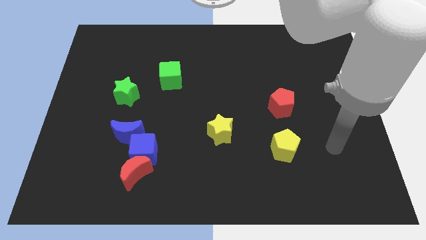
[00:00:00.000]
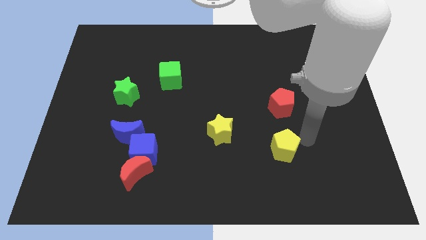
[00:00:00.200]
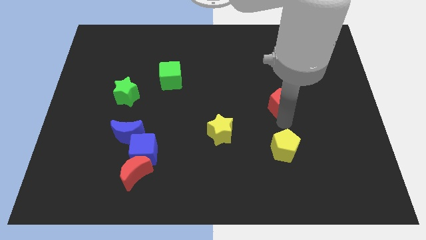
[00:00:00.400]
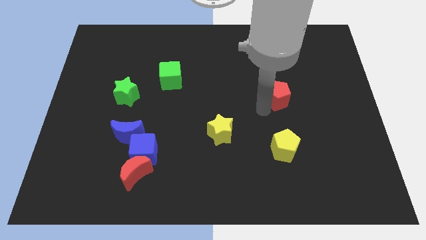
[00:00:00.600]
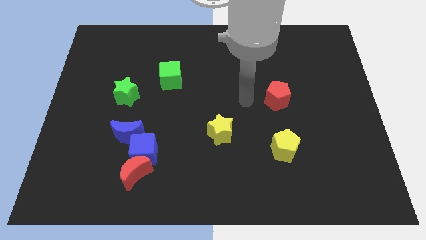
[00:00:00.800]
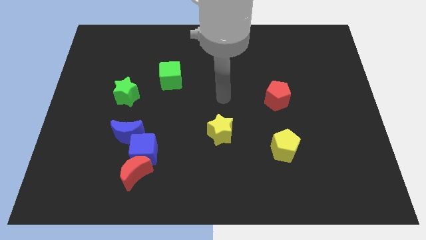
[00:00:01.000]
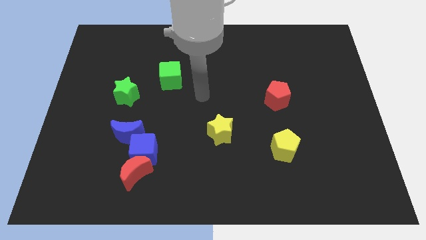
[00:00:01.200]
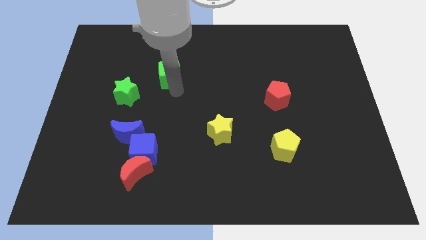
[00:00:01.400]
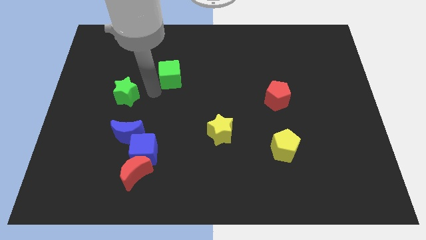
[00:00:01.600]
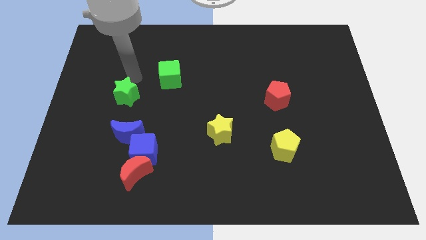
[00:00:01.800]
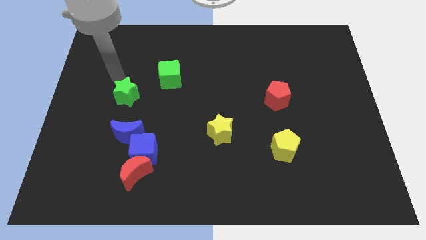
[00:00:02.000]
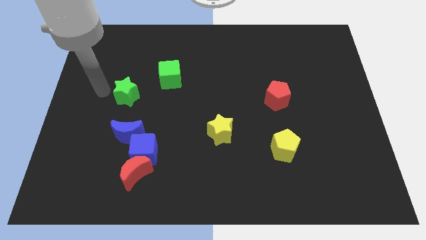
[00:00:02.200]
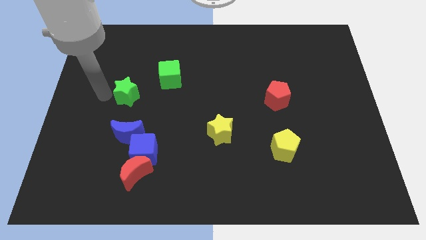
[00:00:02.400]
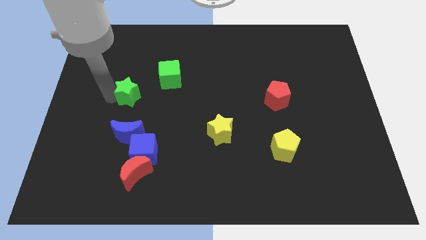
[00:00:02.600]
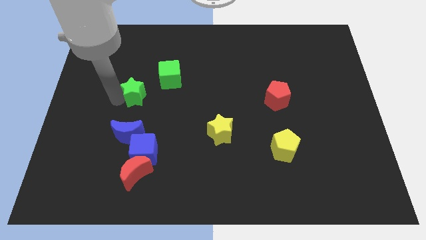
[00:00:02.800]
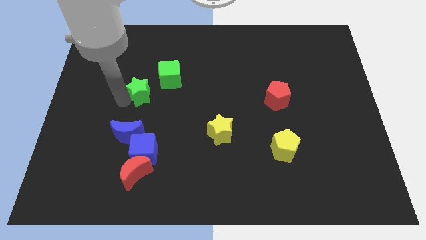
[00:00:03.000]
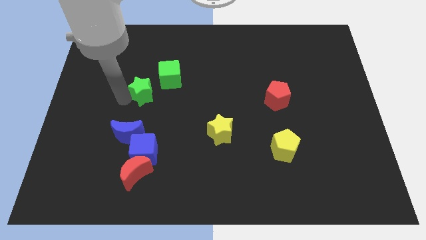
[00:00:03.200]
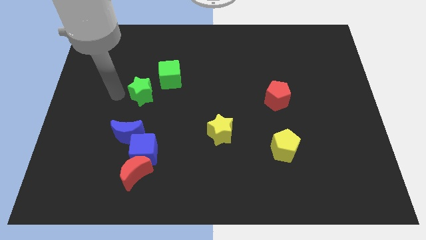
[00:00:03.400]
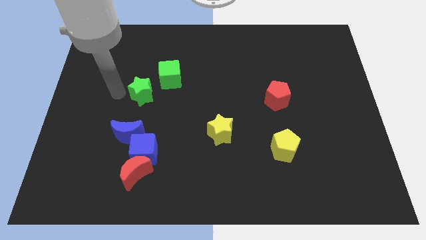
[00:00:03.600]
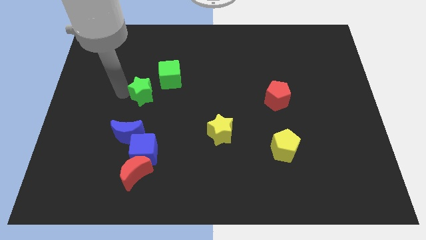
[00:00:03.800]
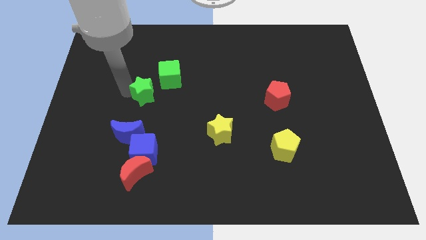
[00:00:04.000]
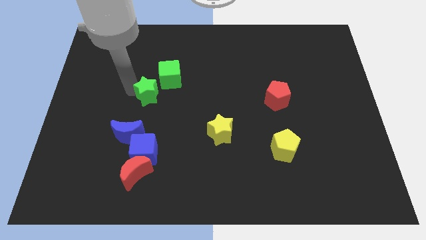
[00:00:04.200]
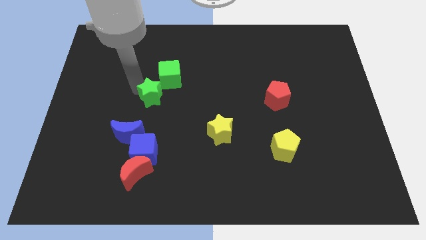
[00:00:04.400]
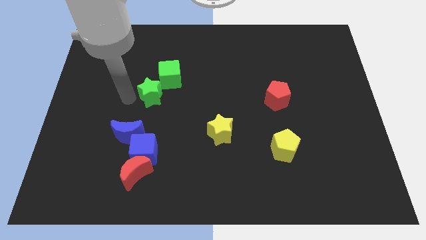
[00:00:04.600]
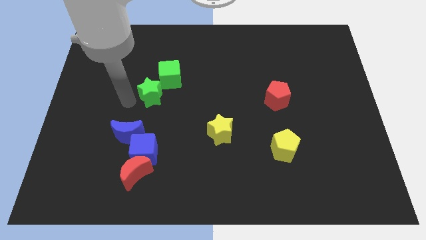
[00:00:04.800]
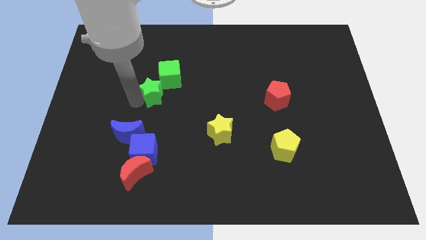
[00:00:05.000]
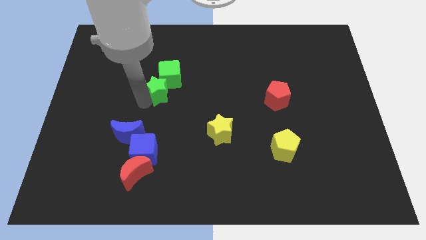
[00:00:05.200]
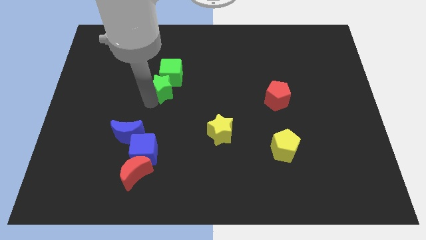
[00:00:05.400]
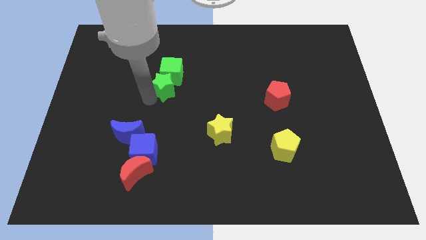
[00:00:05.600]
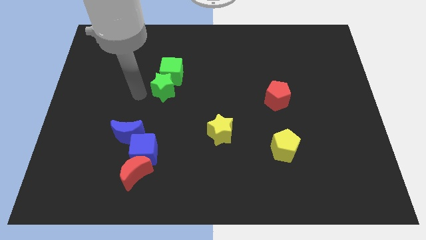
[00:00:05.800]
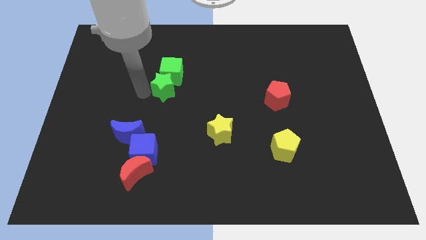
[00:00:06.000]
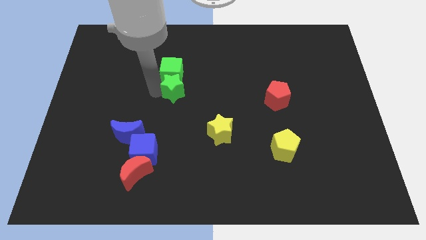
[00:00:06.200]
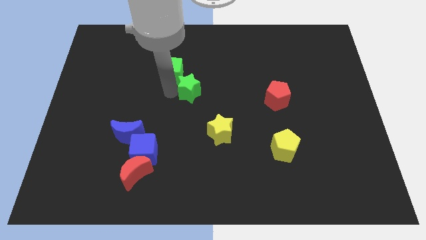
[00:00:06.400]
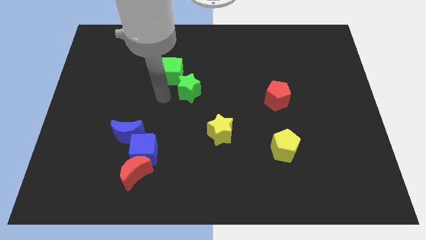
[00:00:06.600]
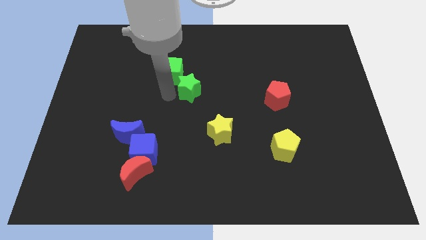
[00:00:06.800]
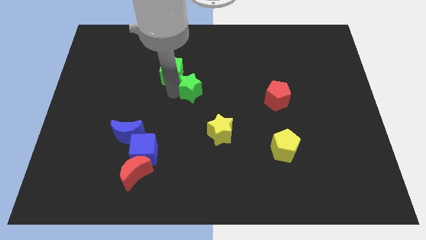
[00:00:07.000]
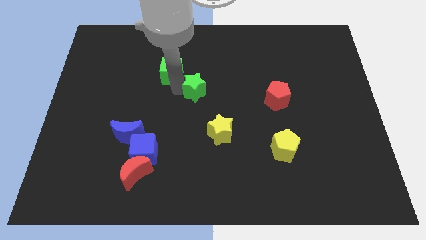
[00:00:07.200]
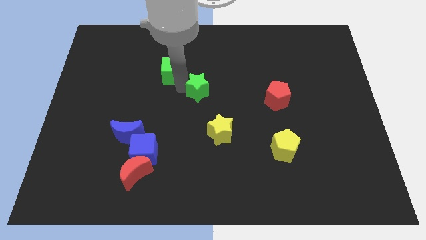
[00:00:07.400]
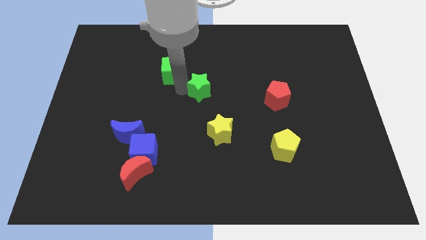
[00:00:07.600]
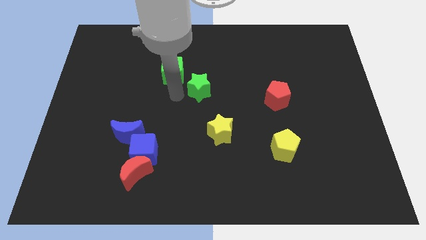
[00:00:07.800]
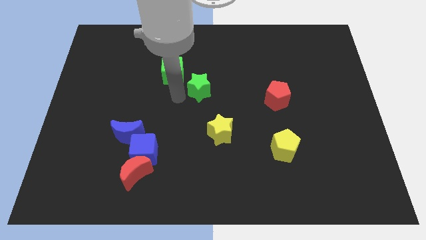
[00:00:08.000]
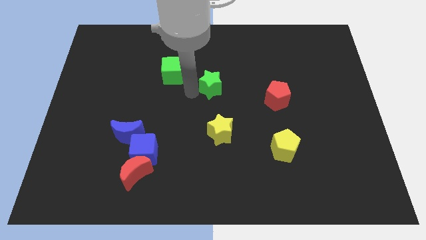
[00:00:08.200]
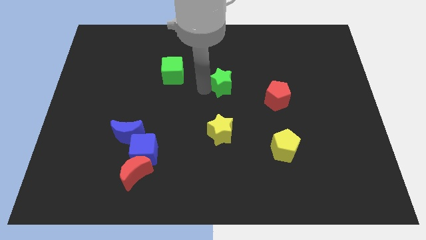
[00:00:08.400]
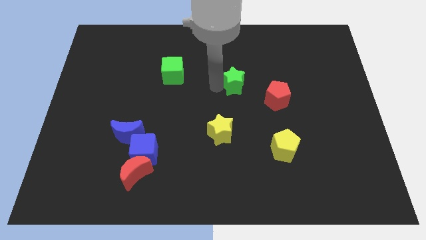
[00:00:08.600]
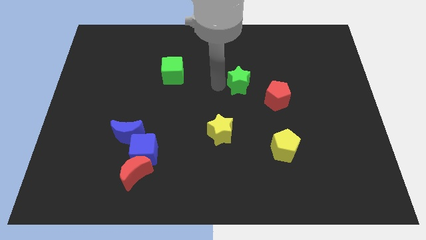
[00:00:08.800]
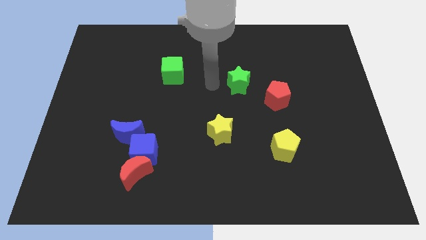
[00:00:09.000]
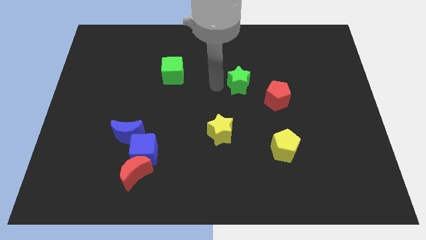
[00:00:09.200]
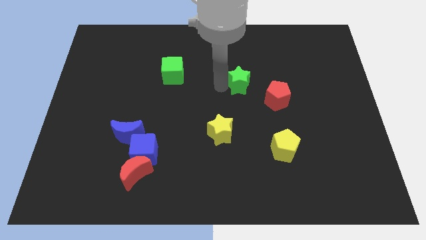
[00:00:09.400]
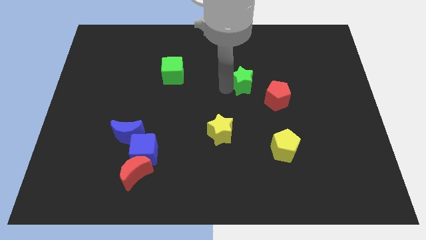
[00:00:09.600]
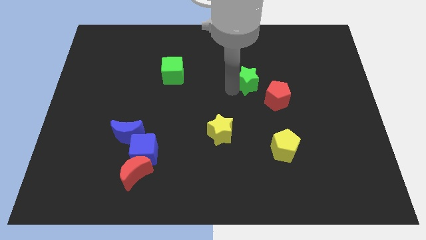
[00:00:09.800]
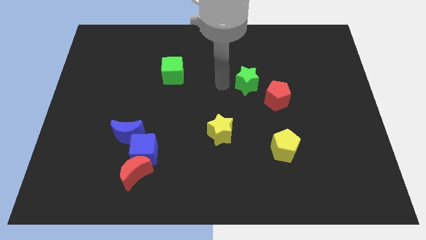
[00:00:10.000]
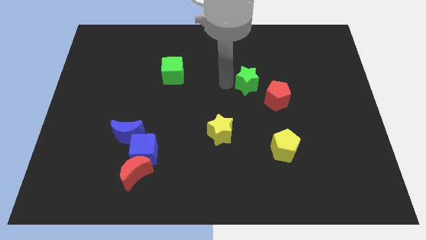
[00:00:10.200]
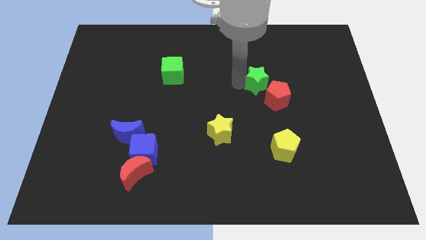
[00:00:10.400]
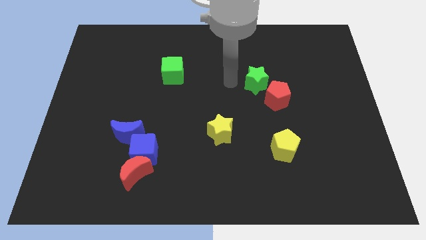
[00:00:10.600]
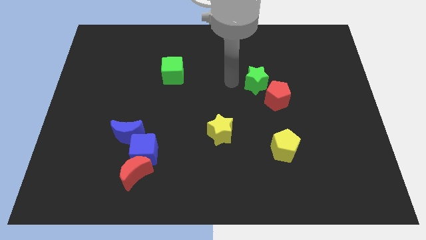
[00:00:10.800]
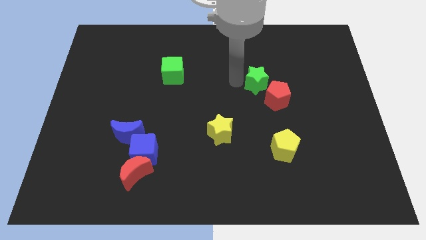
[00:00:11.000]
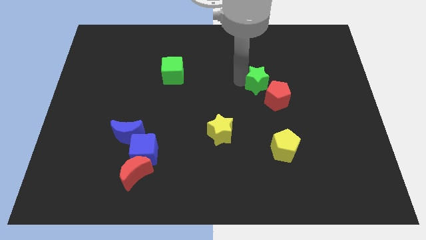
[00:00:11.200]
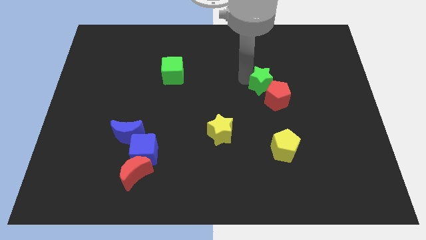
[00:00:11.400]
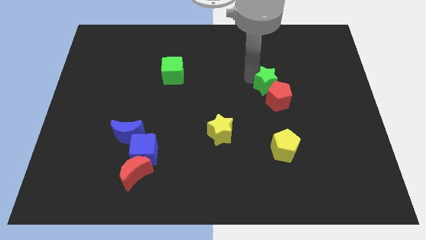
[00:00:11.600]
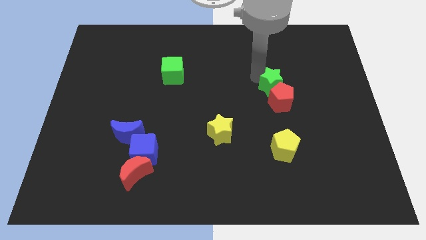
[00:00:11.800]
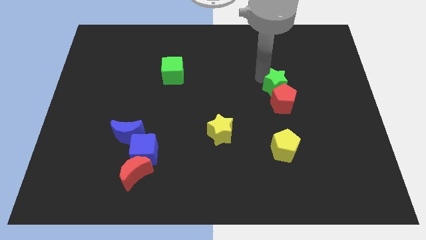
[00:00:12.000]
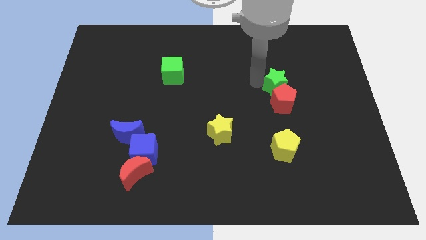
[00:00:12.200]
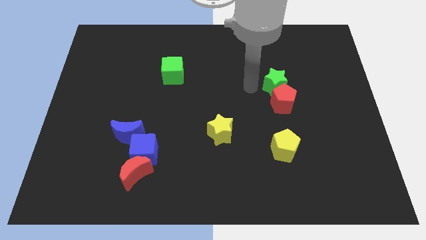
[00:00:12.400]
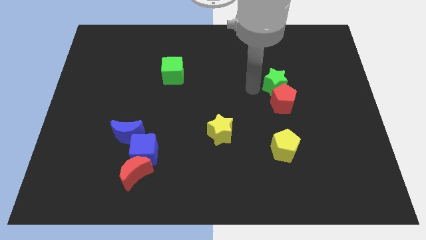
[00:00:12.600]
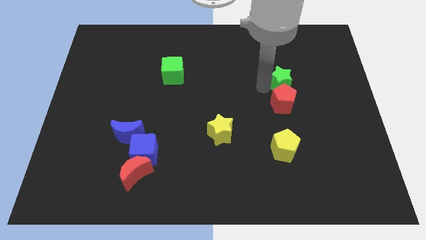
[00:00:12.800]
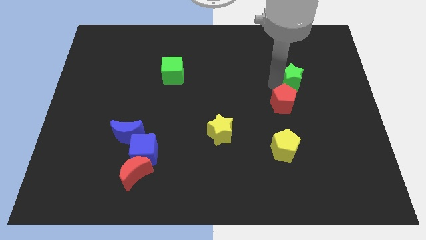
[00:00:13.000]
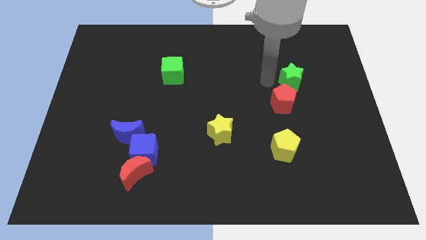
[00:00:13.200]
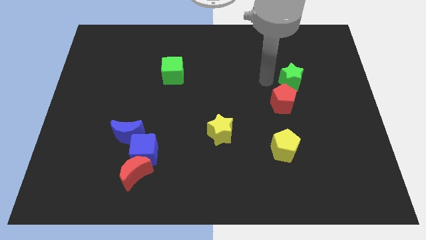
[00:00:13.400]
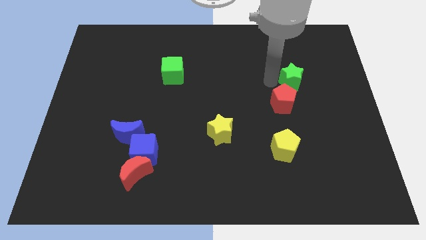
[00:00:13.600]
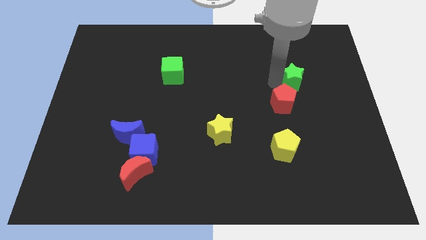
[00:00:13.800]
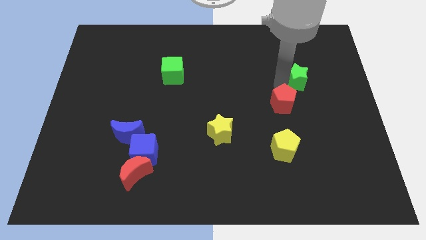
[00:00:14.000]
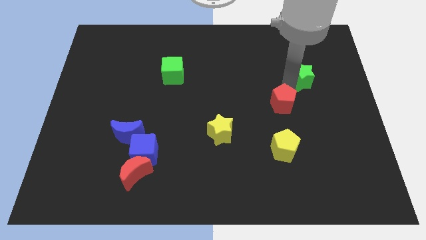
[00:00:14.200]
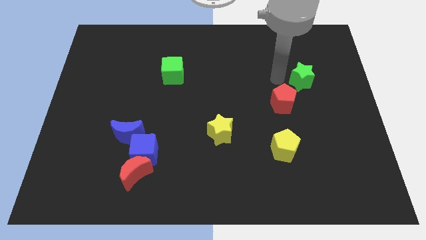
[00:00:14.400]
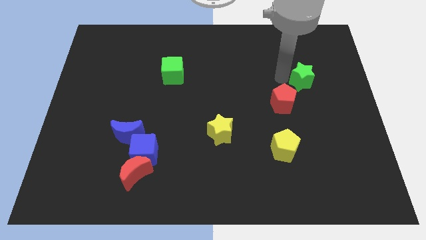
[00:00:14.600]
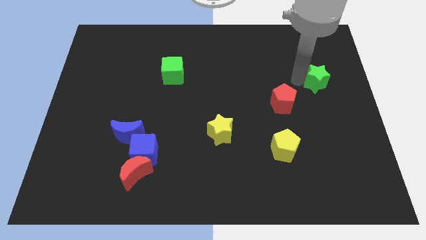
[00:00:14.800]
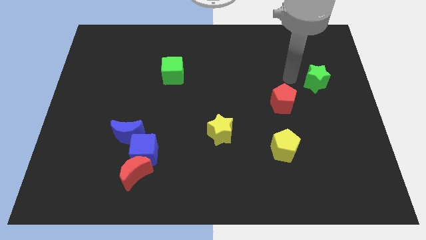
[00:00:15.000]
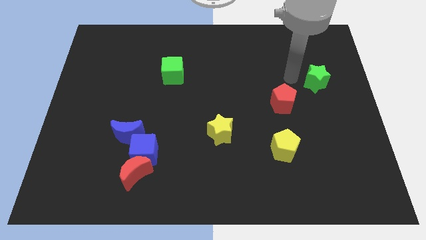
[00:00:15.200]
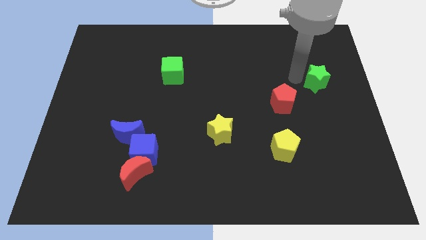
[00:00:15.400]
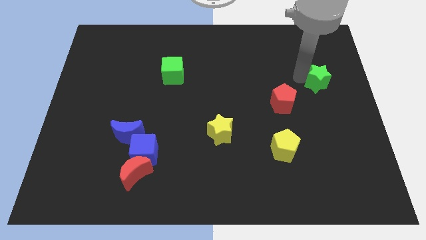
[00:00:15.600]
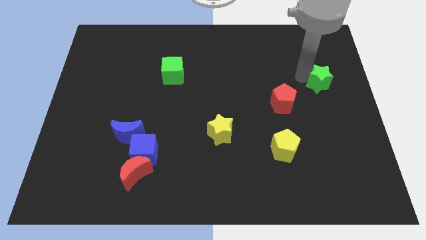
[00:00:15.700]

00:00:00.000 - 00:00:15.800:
slide the green star to the right side of the board
